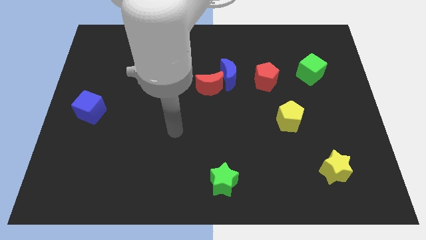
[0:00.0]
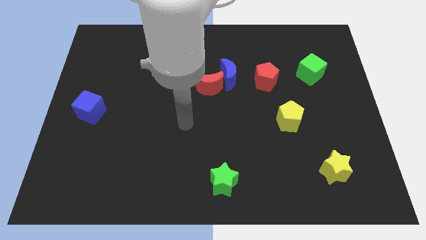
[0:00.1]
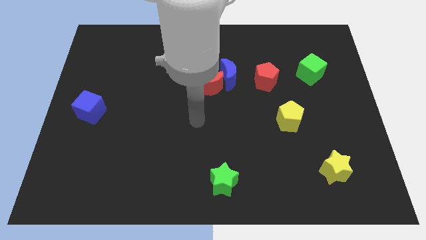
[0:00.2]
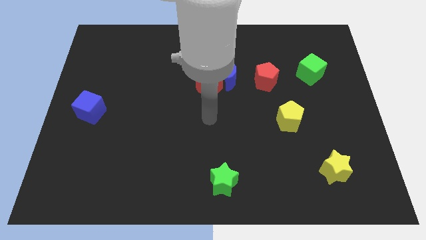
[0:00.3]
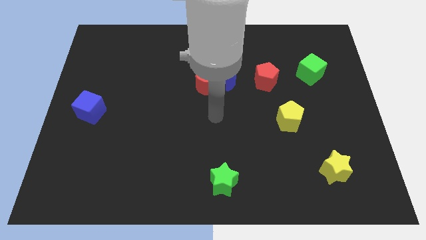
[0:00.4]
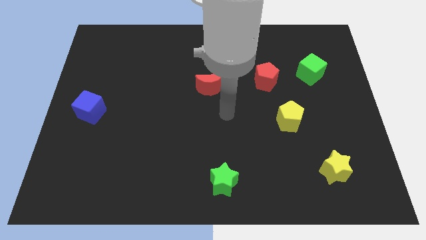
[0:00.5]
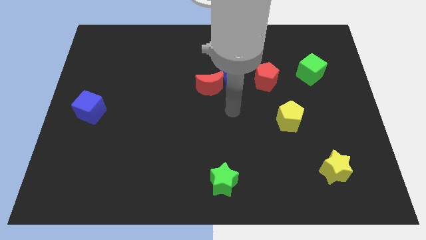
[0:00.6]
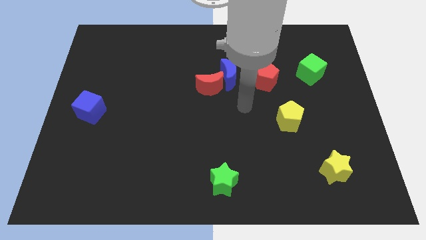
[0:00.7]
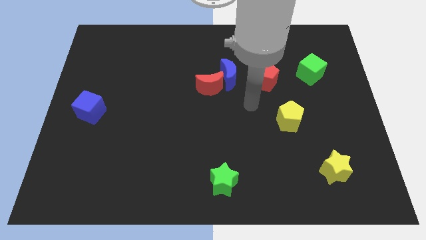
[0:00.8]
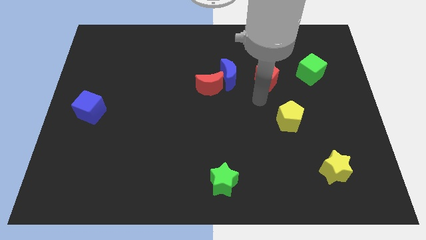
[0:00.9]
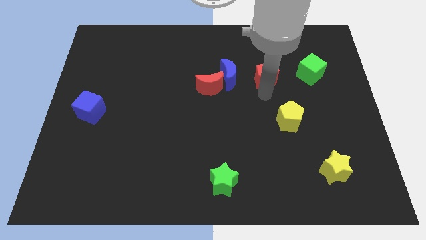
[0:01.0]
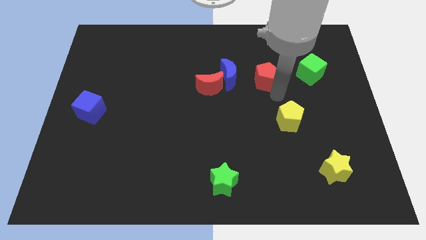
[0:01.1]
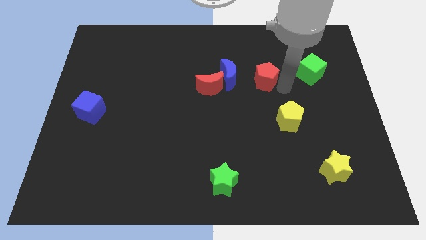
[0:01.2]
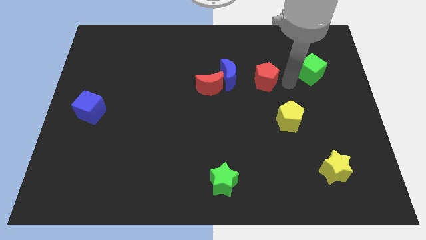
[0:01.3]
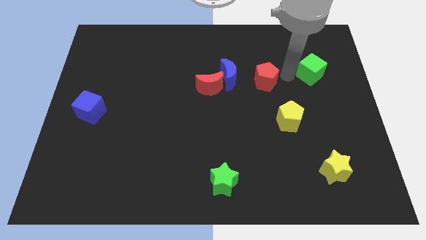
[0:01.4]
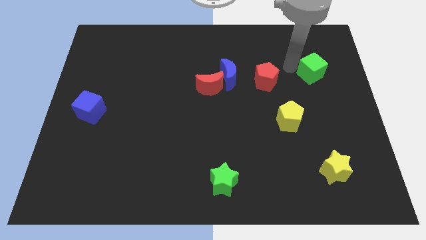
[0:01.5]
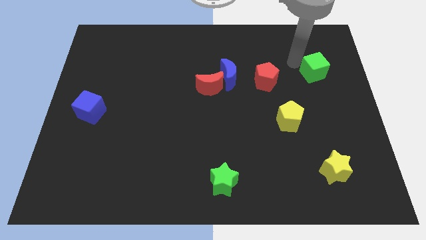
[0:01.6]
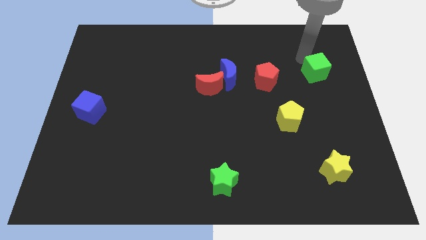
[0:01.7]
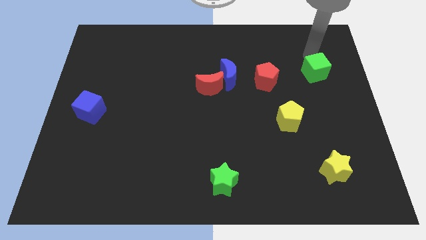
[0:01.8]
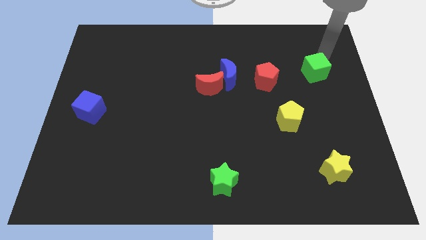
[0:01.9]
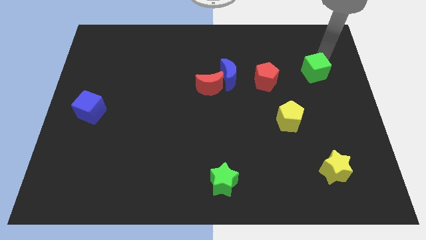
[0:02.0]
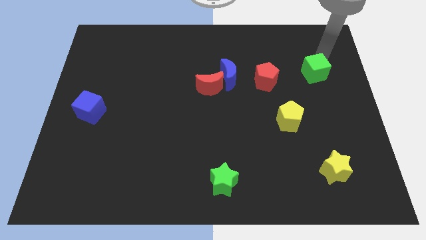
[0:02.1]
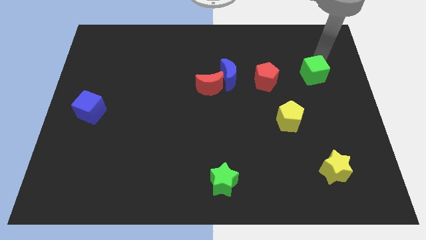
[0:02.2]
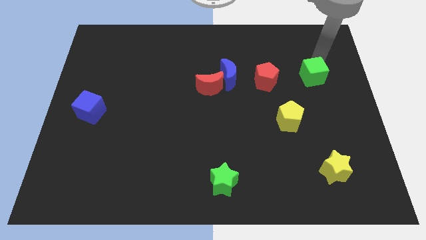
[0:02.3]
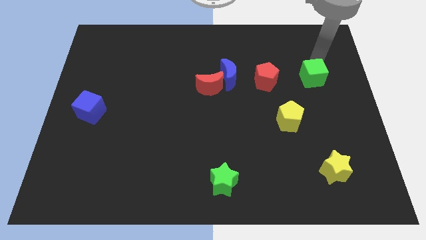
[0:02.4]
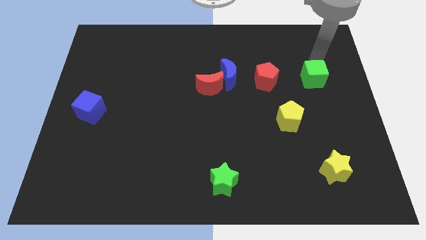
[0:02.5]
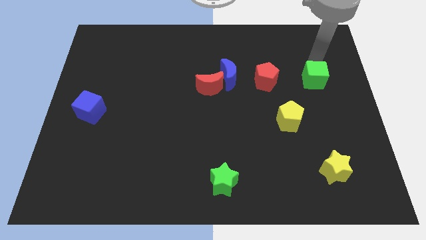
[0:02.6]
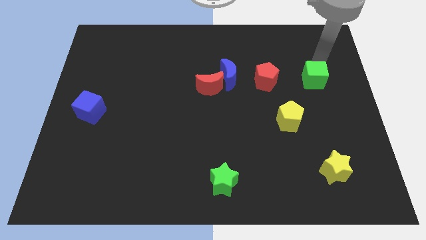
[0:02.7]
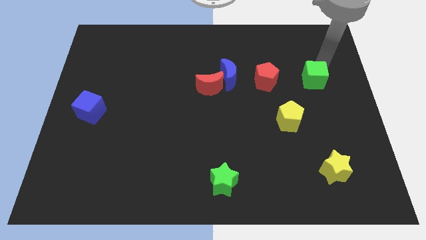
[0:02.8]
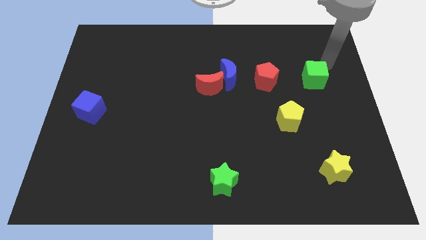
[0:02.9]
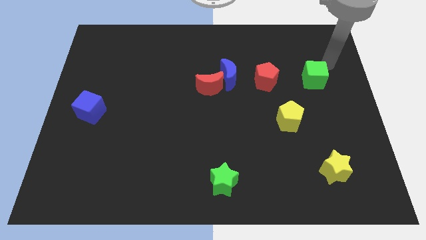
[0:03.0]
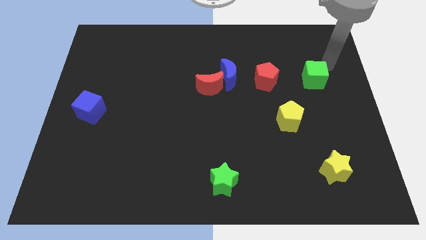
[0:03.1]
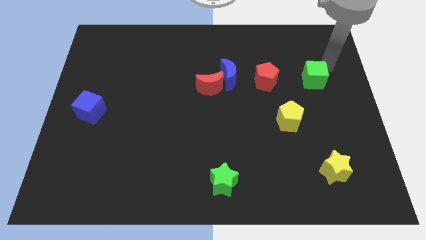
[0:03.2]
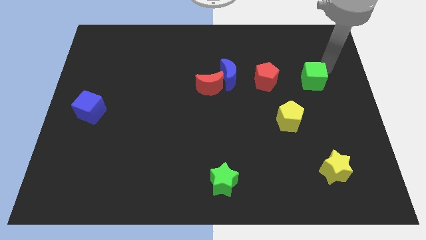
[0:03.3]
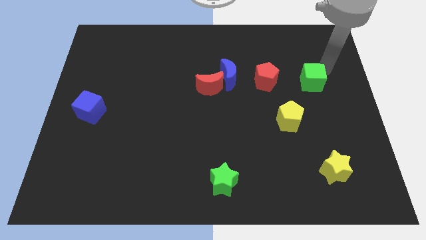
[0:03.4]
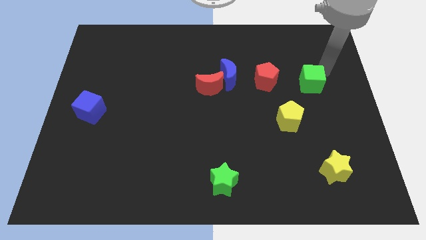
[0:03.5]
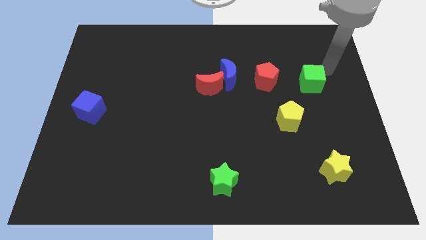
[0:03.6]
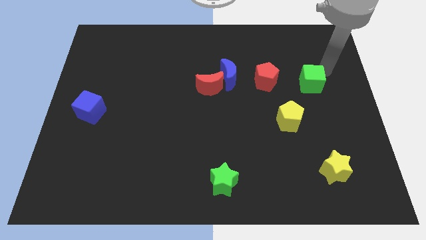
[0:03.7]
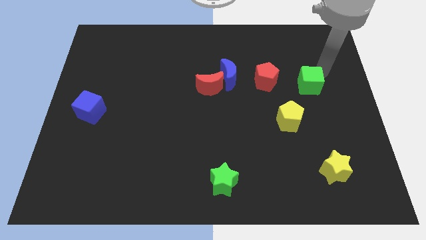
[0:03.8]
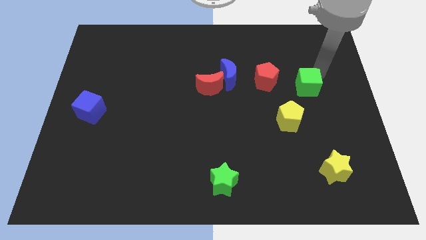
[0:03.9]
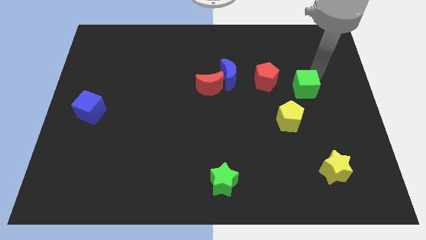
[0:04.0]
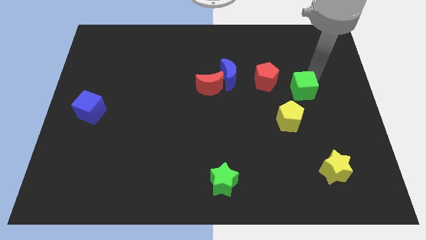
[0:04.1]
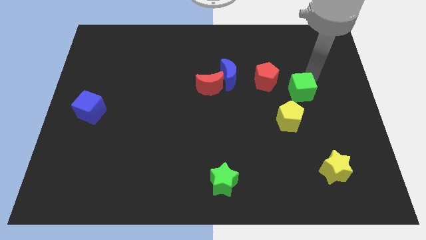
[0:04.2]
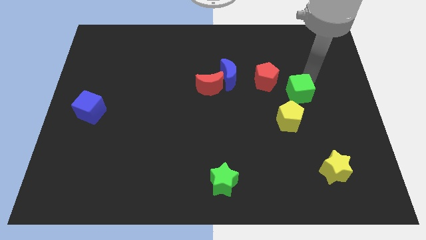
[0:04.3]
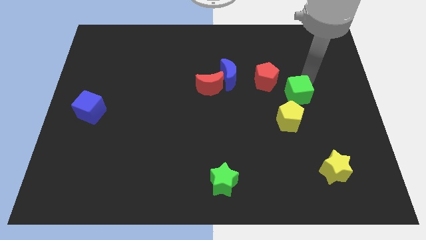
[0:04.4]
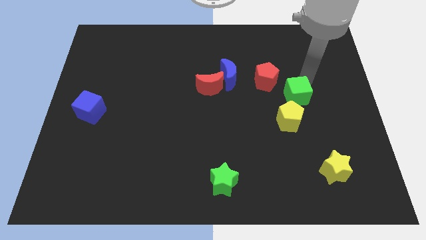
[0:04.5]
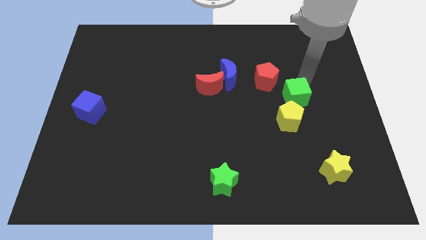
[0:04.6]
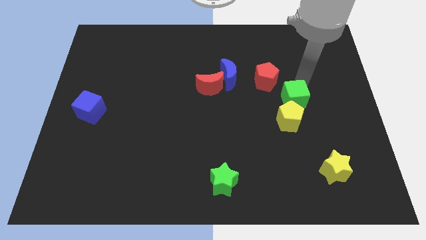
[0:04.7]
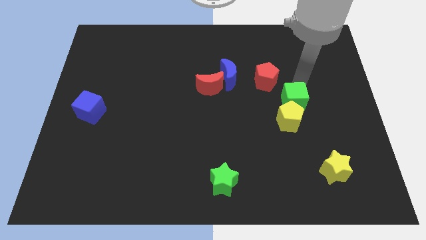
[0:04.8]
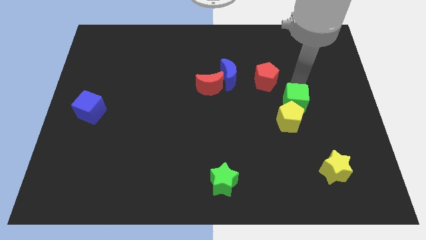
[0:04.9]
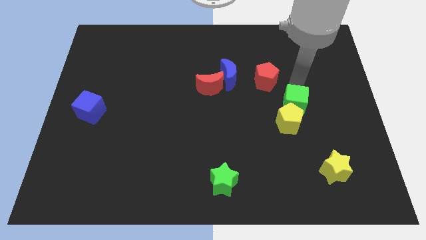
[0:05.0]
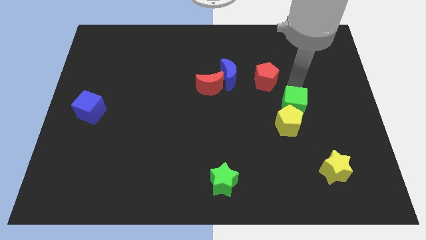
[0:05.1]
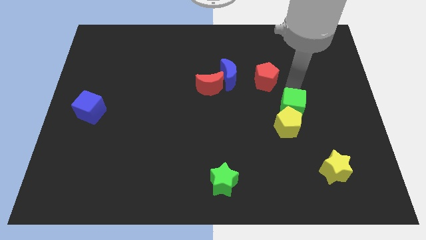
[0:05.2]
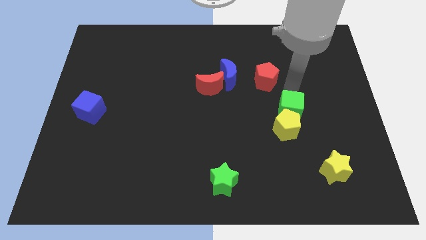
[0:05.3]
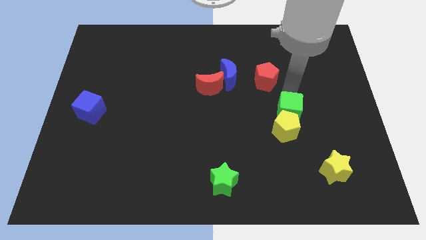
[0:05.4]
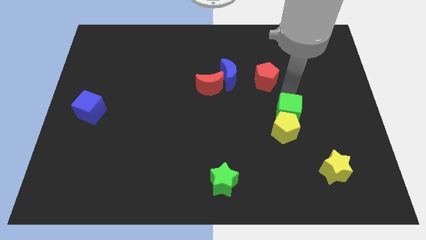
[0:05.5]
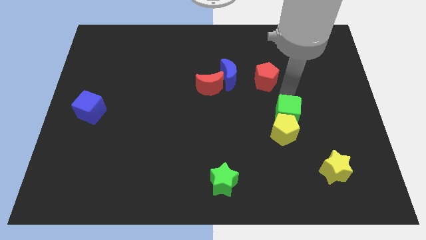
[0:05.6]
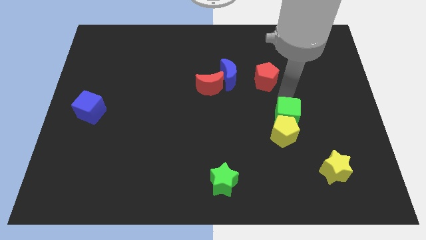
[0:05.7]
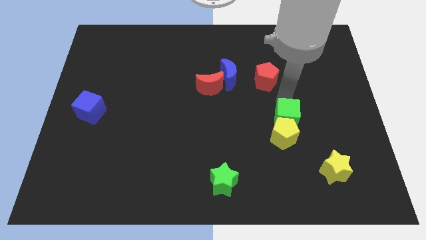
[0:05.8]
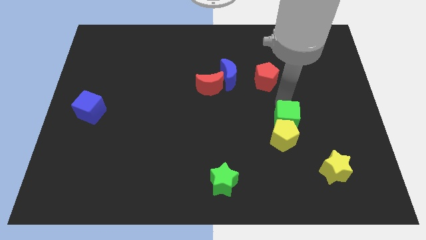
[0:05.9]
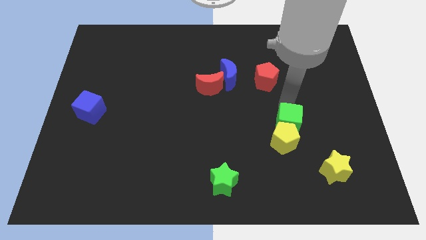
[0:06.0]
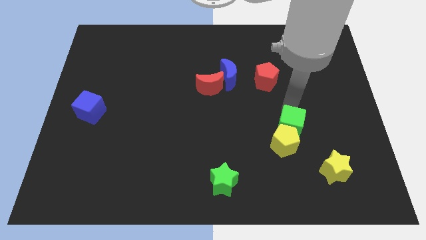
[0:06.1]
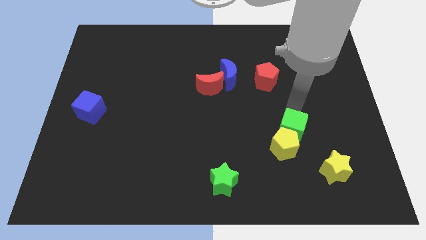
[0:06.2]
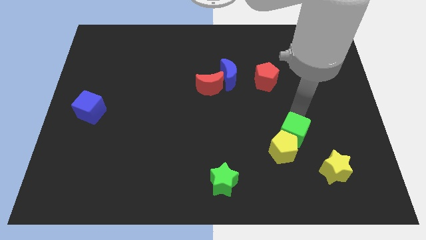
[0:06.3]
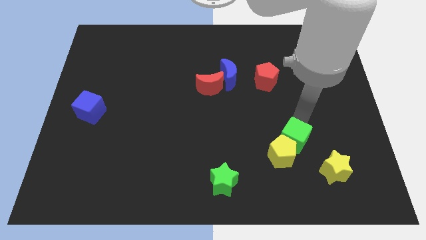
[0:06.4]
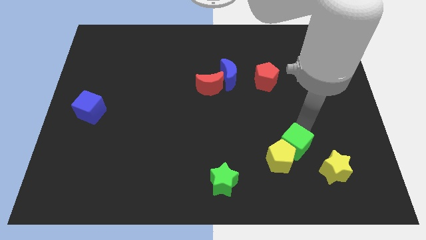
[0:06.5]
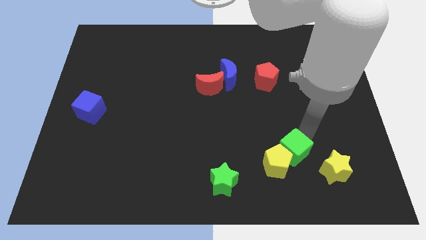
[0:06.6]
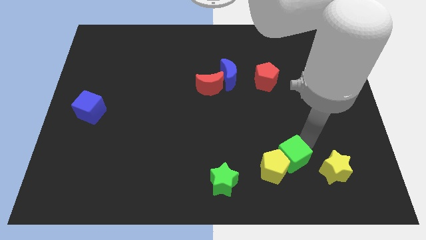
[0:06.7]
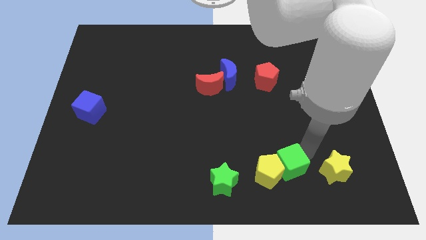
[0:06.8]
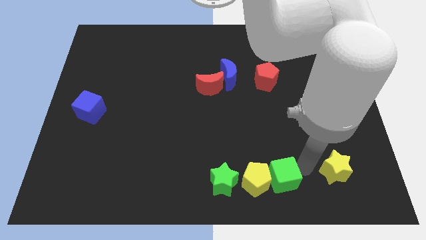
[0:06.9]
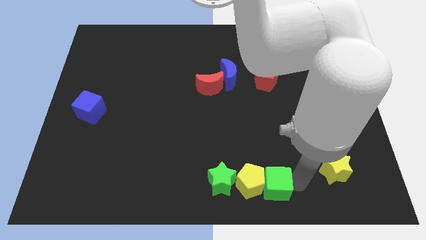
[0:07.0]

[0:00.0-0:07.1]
move the green cube to the bottom side
